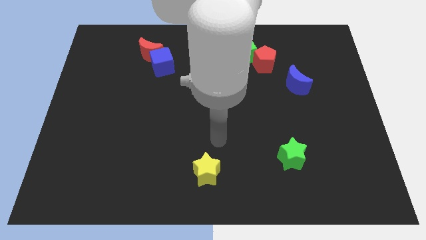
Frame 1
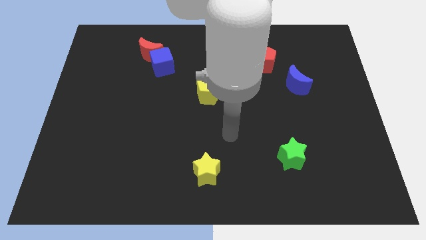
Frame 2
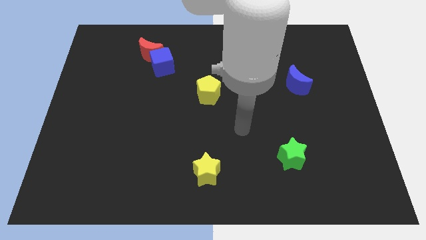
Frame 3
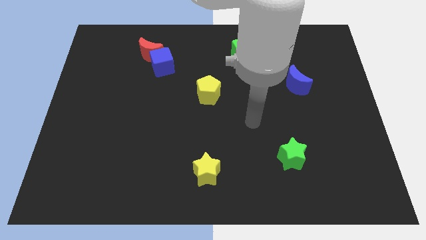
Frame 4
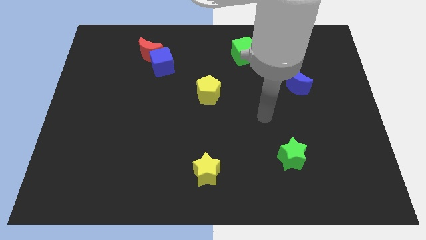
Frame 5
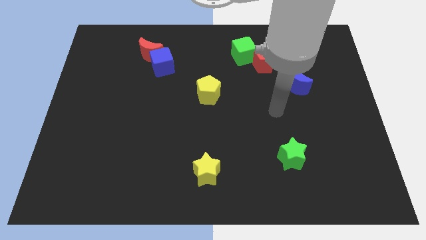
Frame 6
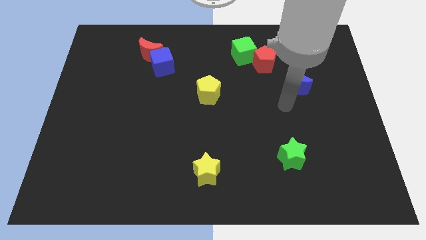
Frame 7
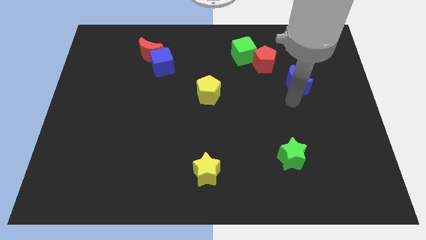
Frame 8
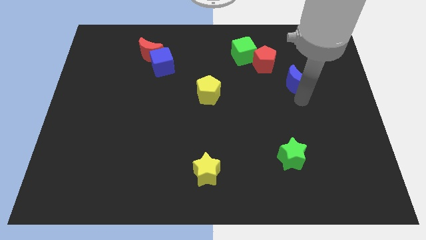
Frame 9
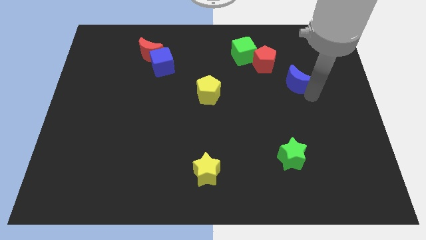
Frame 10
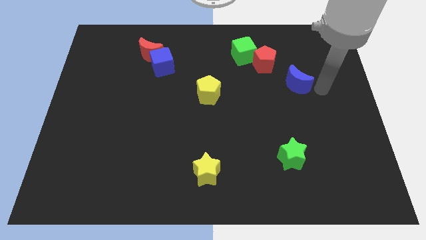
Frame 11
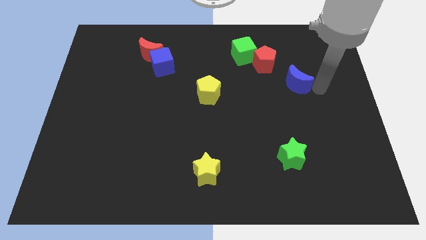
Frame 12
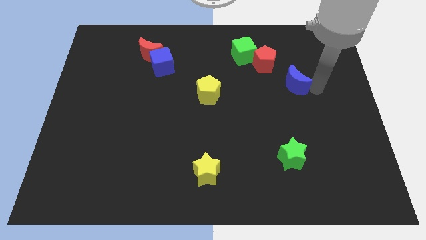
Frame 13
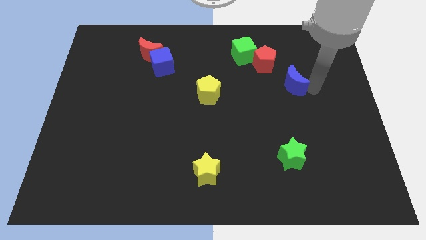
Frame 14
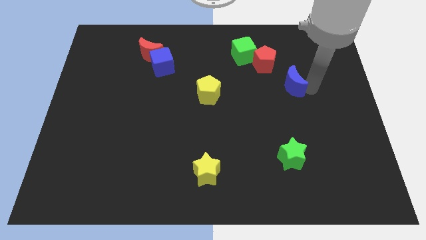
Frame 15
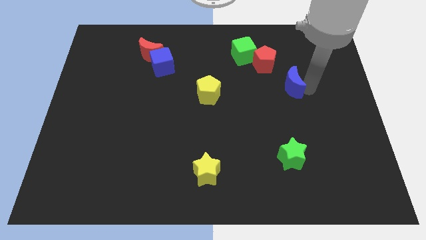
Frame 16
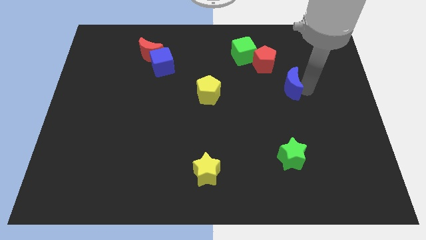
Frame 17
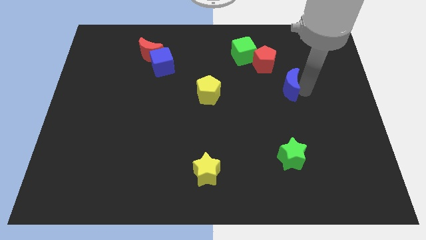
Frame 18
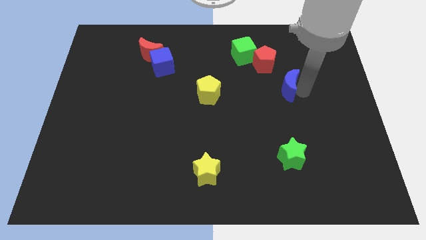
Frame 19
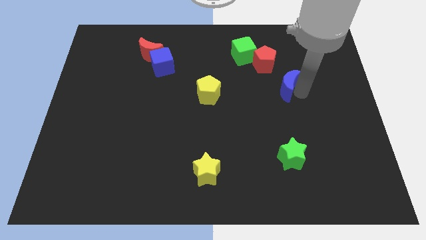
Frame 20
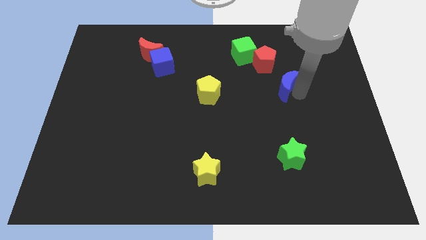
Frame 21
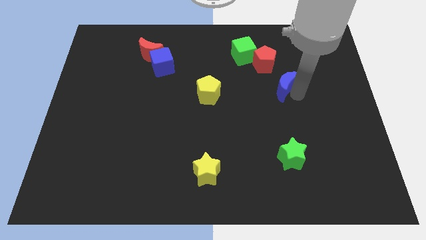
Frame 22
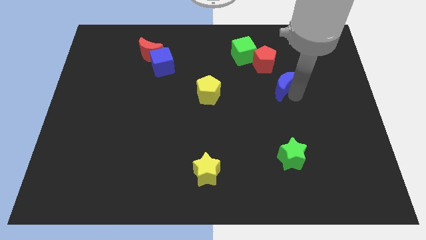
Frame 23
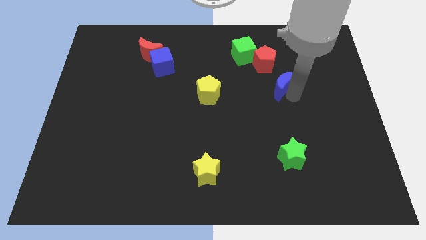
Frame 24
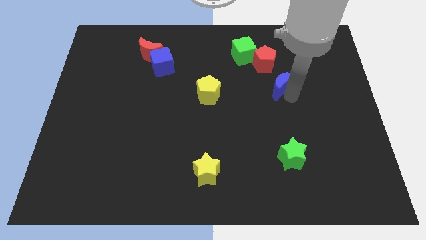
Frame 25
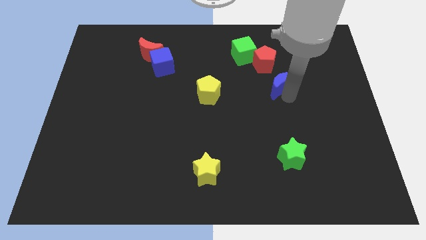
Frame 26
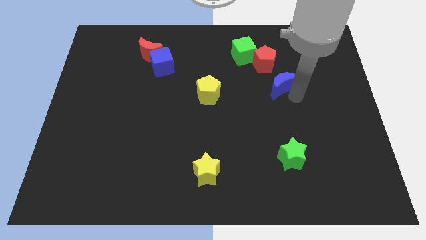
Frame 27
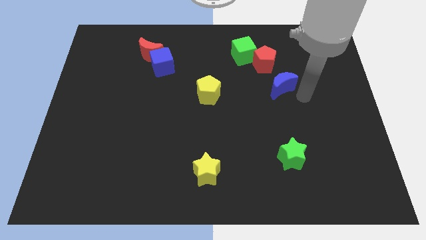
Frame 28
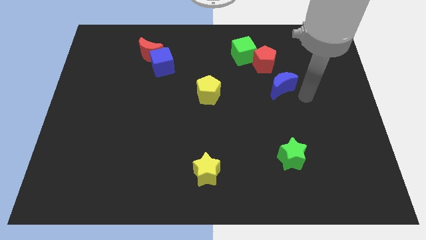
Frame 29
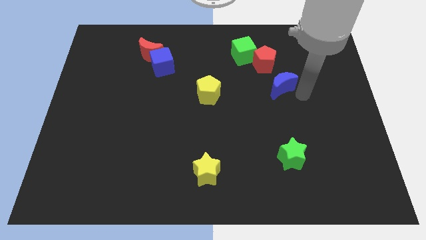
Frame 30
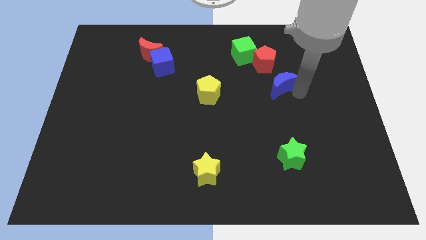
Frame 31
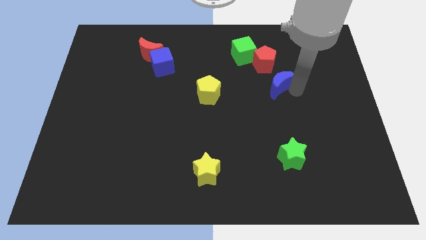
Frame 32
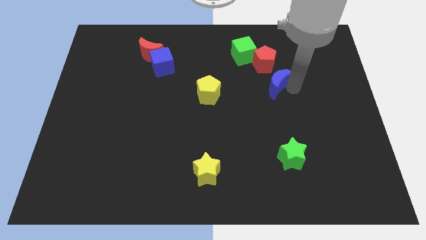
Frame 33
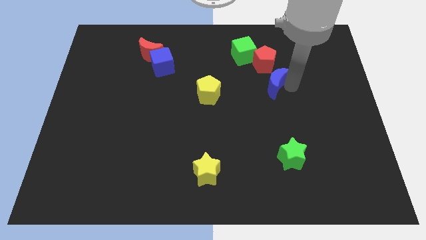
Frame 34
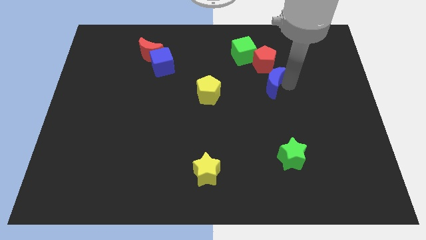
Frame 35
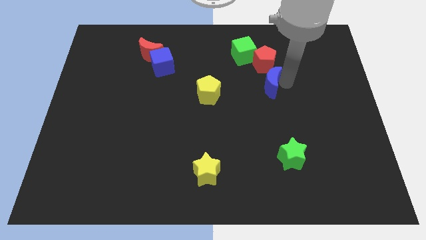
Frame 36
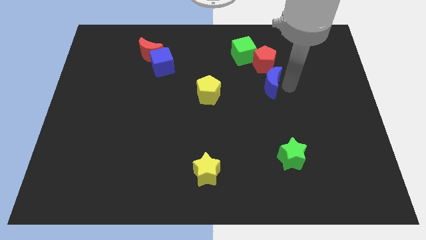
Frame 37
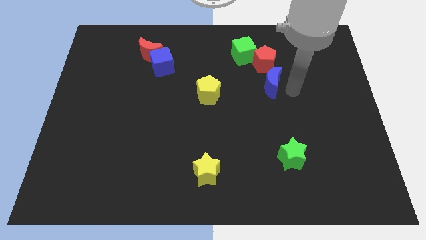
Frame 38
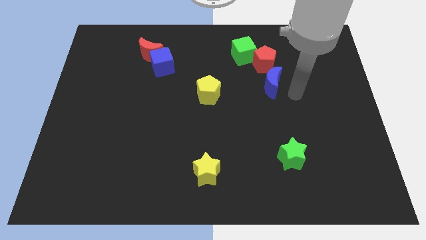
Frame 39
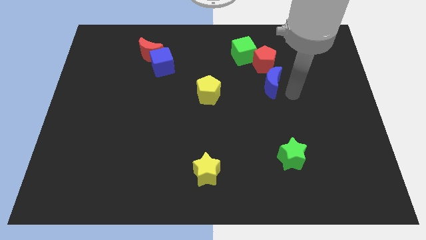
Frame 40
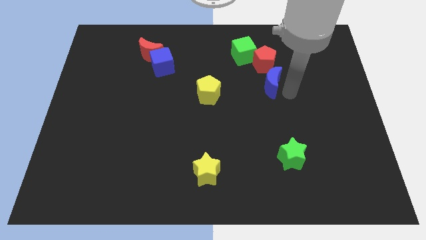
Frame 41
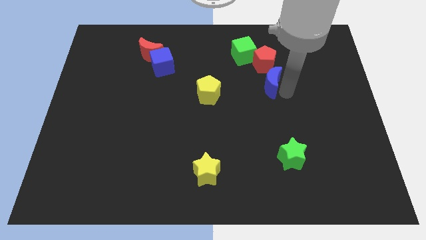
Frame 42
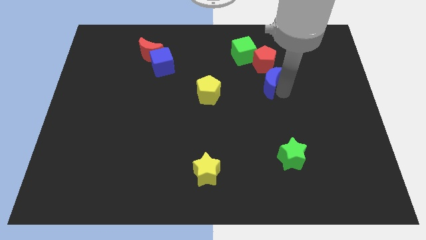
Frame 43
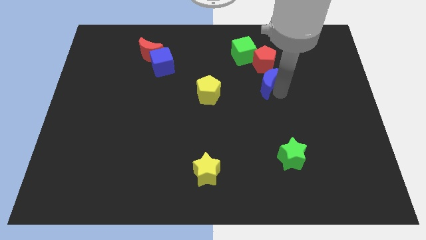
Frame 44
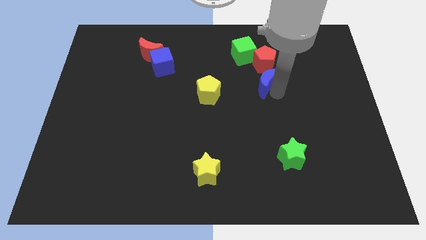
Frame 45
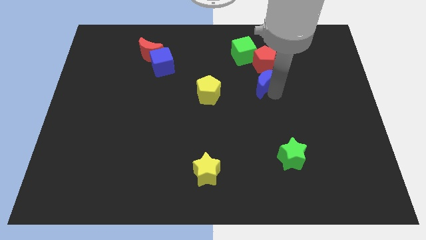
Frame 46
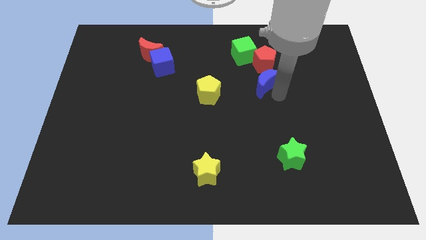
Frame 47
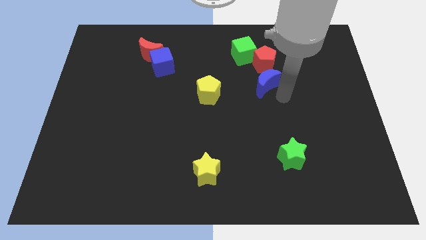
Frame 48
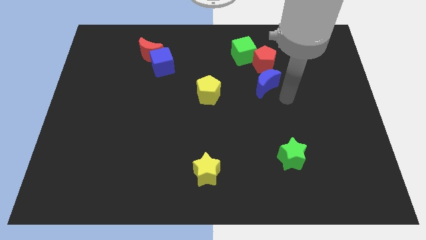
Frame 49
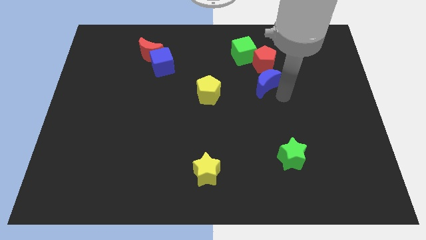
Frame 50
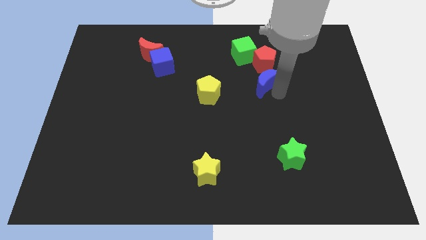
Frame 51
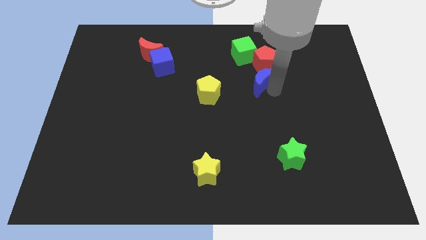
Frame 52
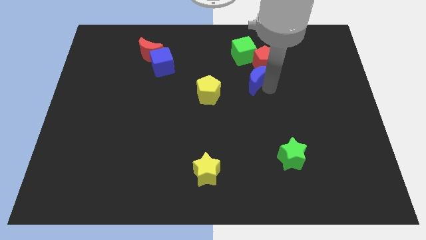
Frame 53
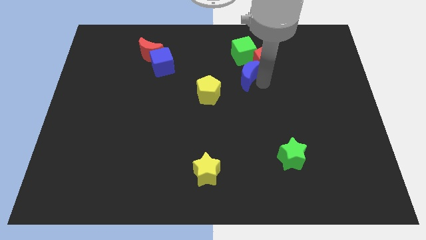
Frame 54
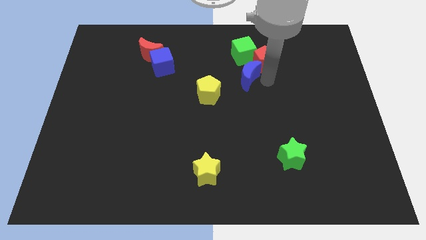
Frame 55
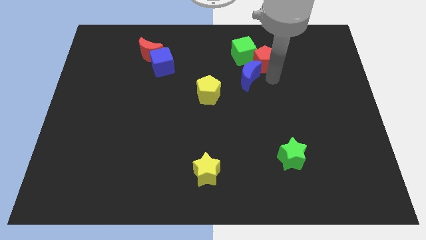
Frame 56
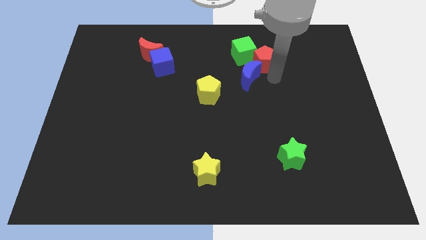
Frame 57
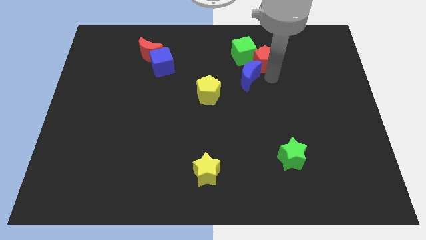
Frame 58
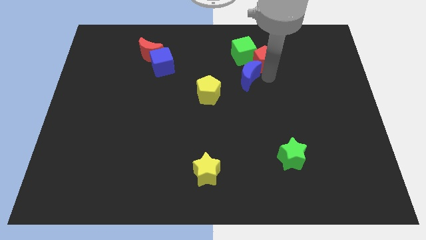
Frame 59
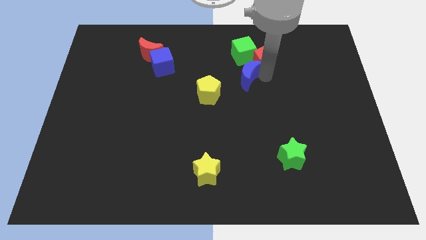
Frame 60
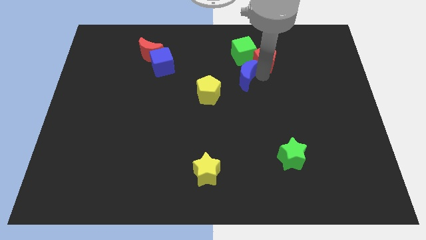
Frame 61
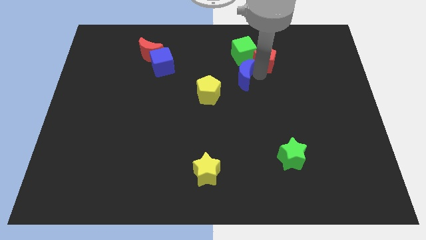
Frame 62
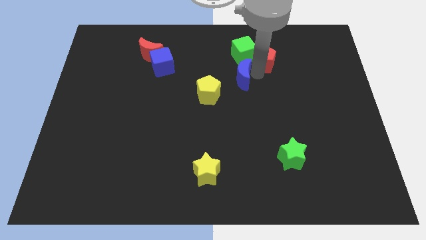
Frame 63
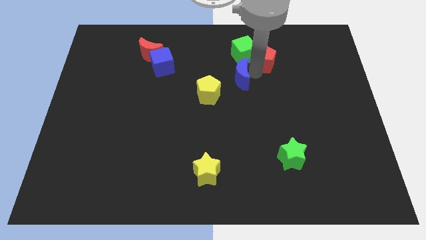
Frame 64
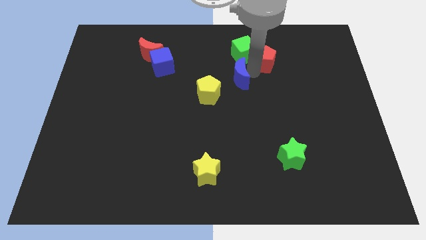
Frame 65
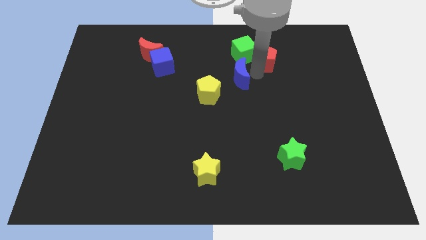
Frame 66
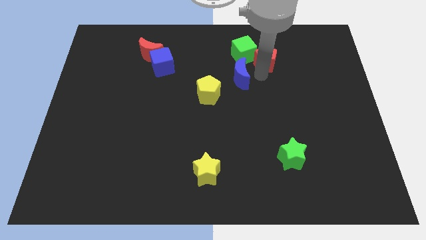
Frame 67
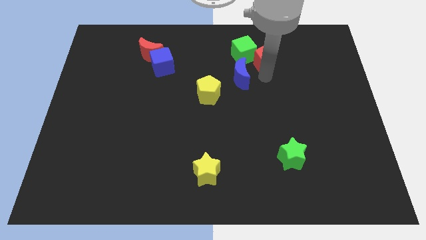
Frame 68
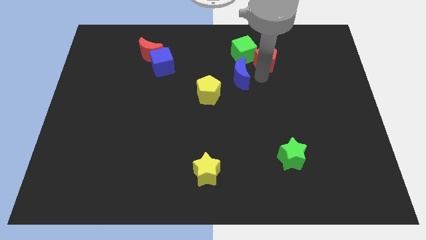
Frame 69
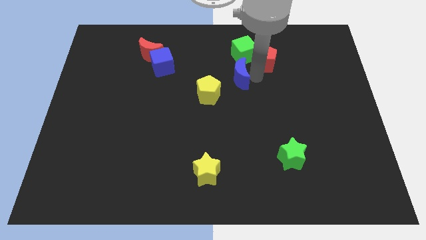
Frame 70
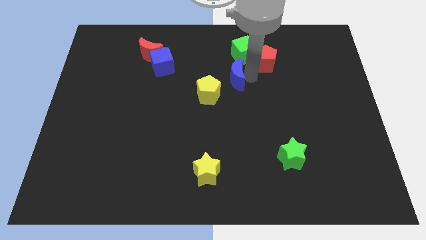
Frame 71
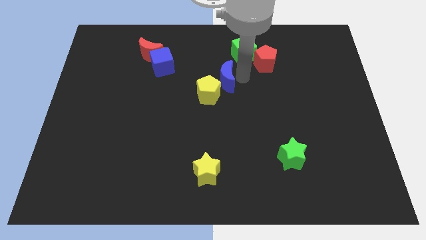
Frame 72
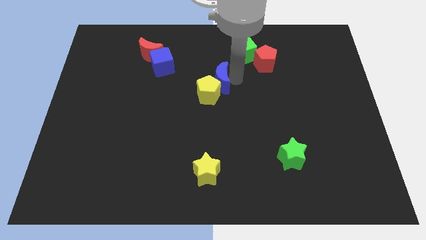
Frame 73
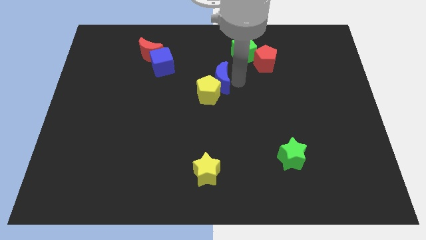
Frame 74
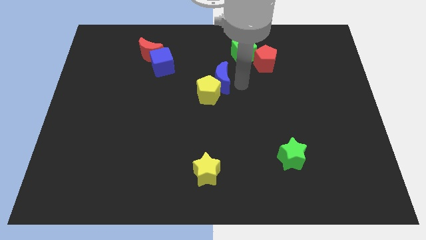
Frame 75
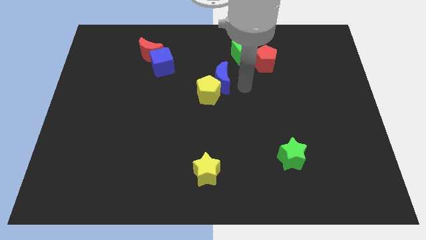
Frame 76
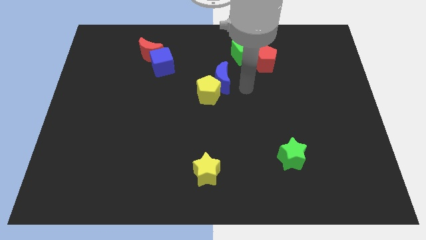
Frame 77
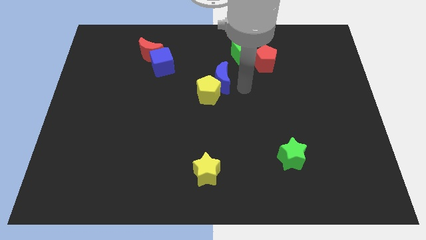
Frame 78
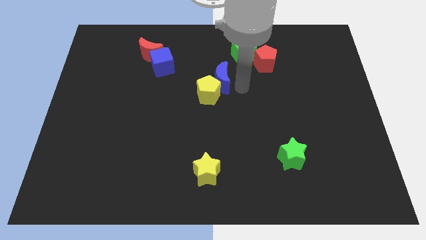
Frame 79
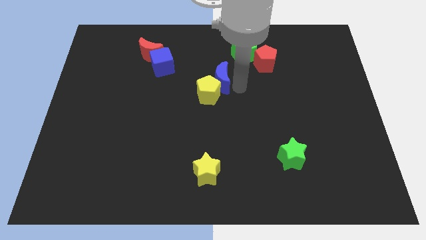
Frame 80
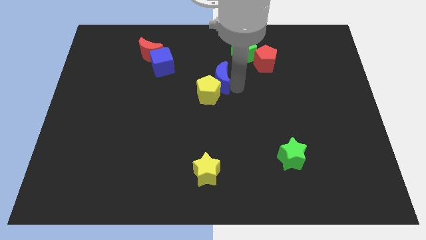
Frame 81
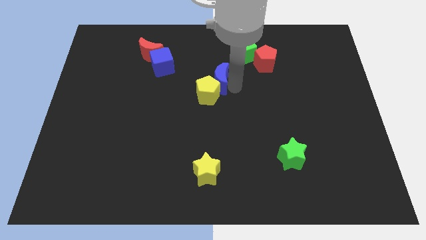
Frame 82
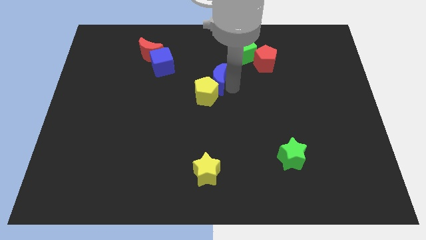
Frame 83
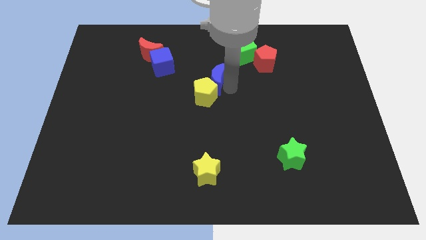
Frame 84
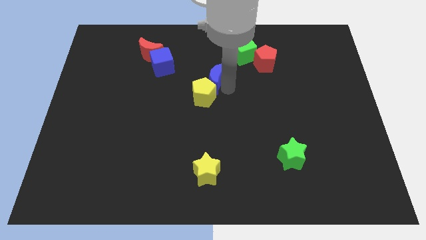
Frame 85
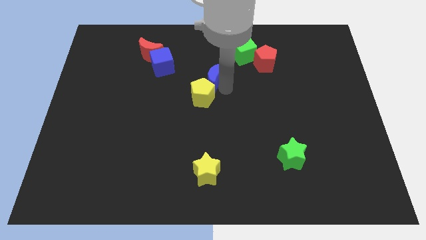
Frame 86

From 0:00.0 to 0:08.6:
slide the blue moon left
